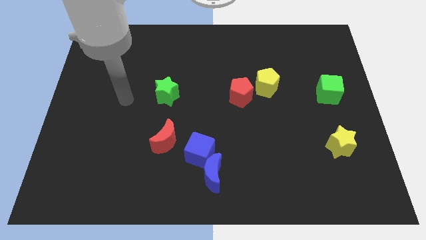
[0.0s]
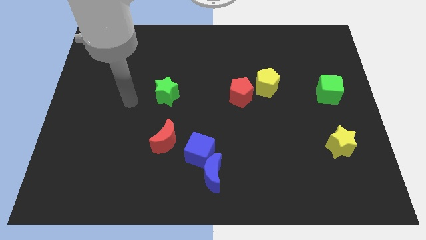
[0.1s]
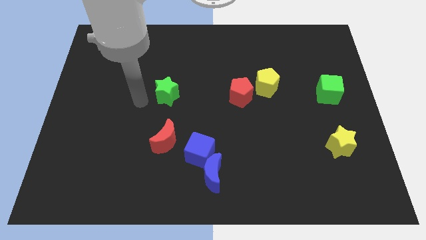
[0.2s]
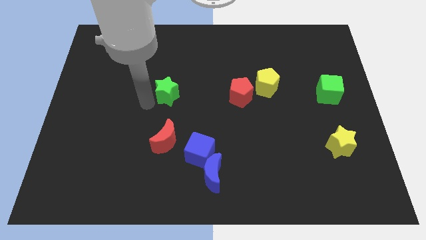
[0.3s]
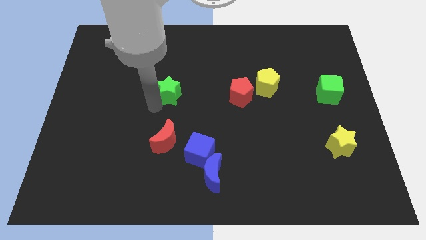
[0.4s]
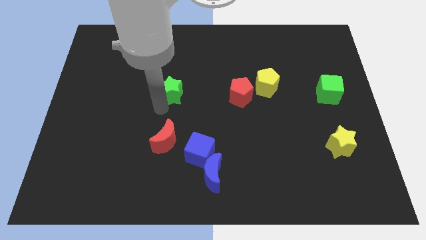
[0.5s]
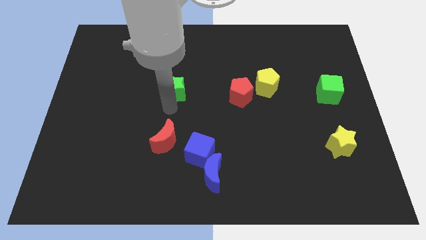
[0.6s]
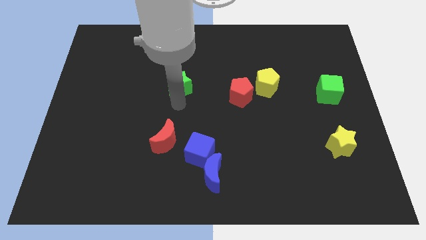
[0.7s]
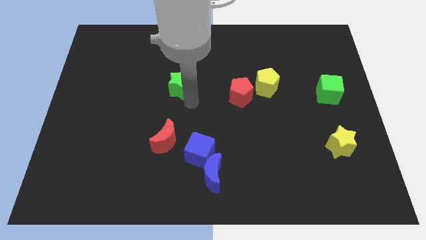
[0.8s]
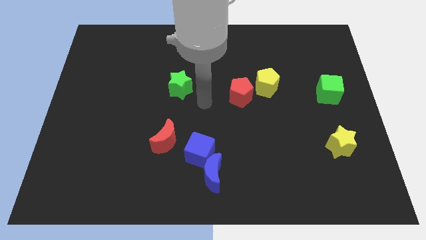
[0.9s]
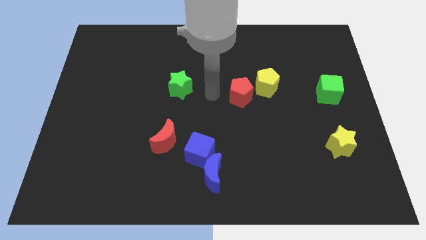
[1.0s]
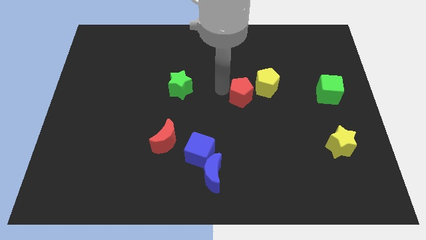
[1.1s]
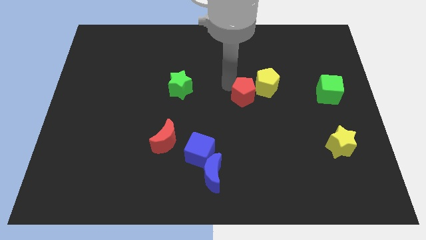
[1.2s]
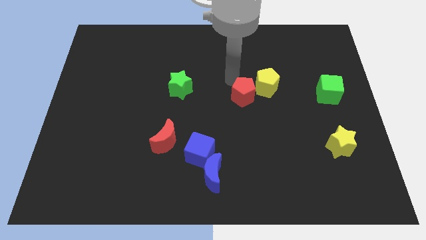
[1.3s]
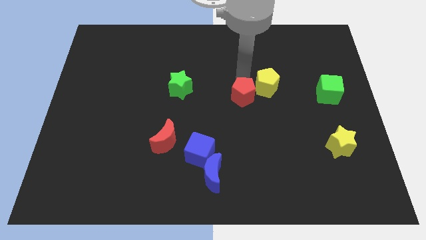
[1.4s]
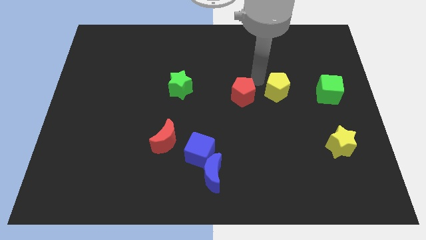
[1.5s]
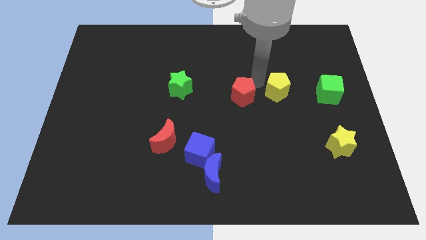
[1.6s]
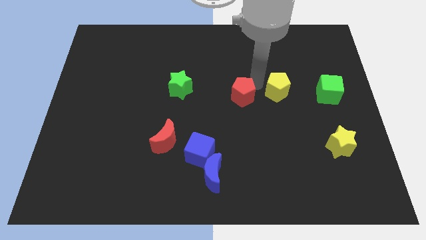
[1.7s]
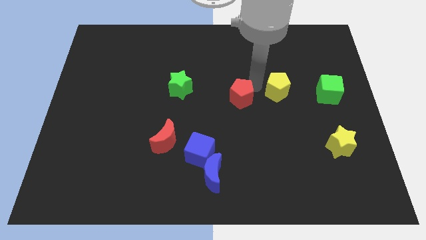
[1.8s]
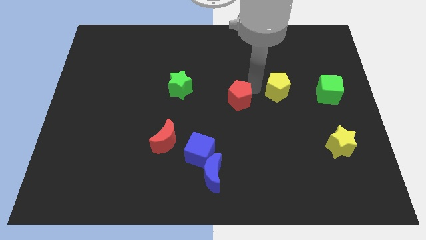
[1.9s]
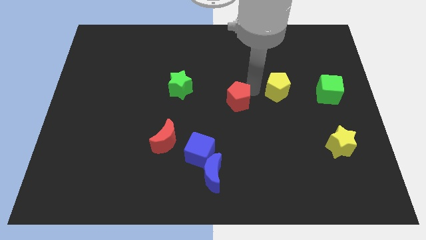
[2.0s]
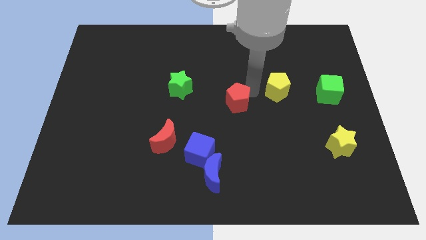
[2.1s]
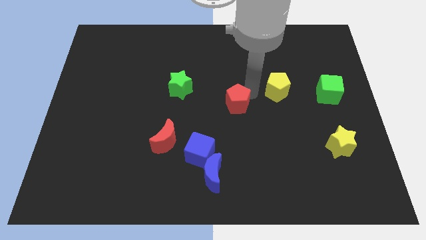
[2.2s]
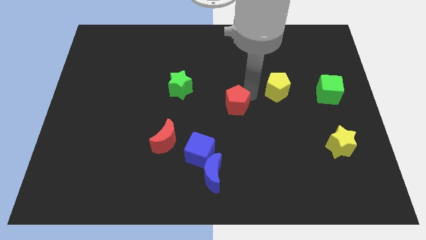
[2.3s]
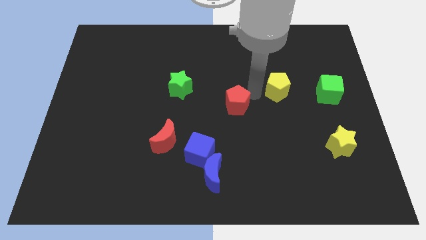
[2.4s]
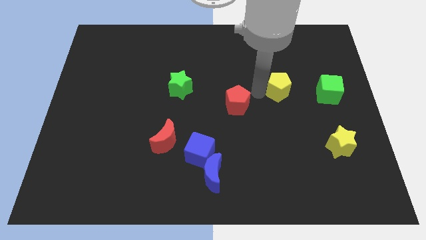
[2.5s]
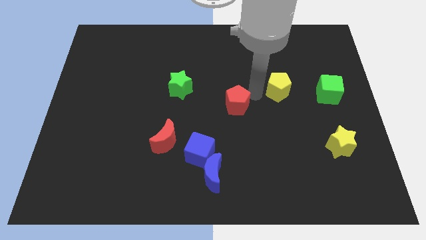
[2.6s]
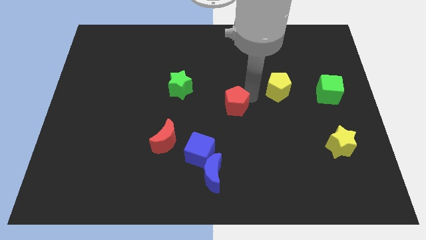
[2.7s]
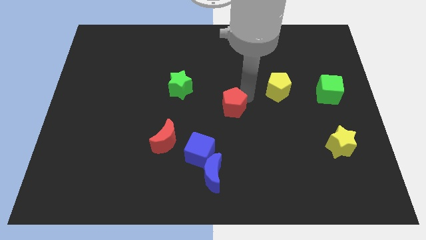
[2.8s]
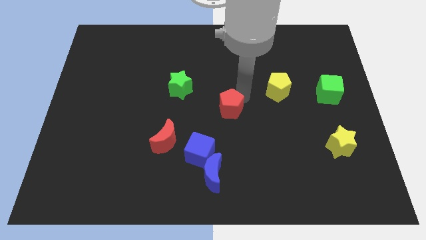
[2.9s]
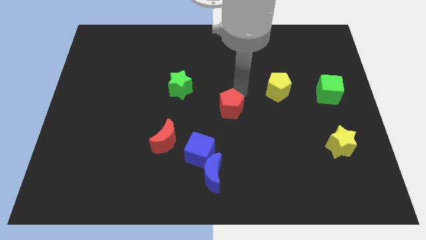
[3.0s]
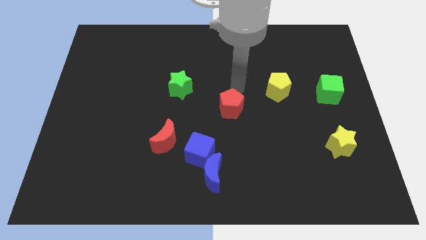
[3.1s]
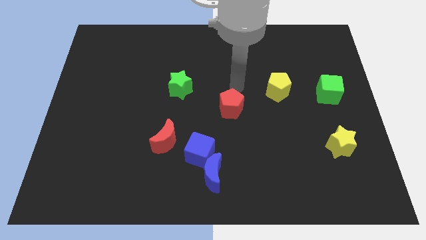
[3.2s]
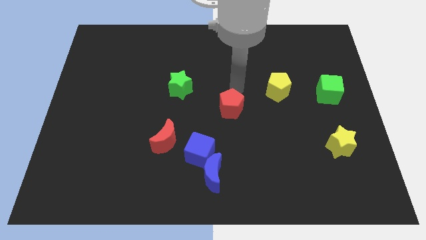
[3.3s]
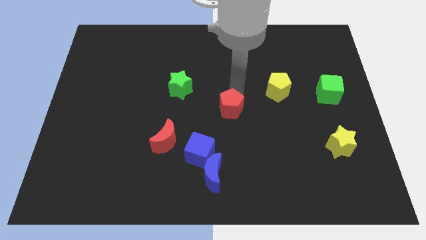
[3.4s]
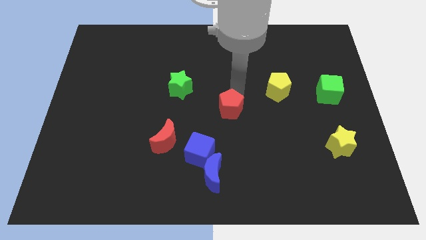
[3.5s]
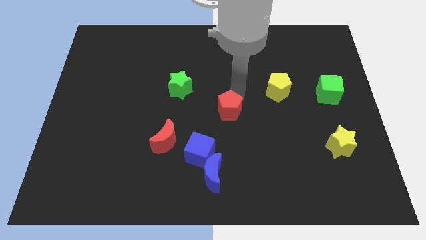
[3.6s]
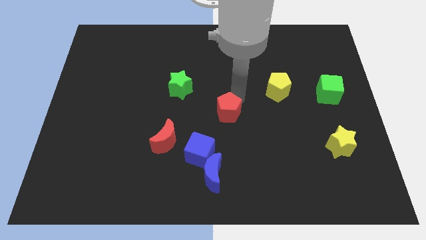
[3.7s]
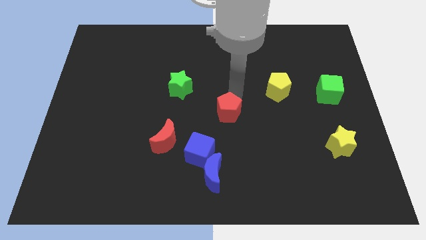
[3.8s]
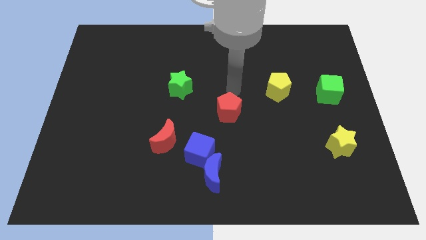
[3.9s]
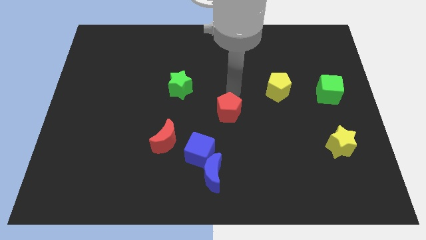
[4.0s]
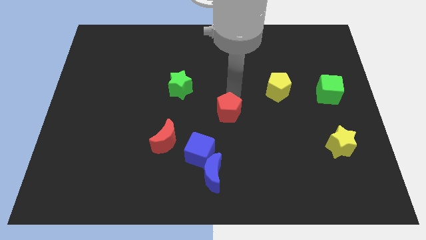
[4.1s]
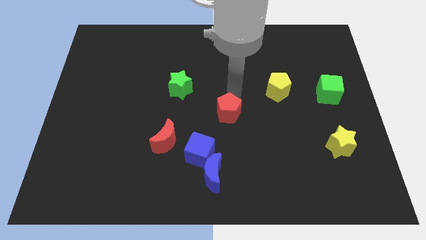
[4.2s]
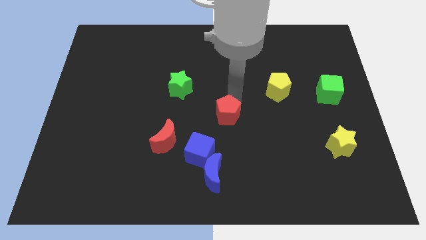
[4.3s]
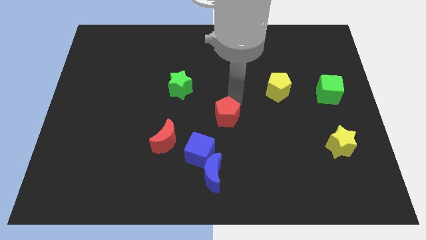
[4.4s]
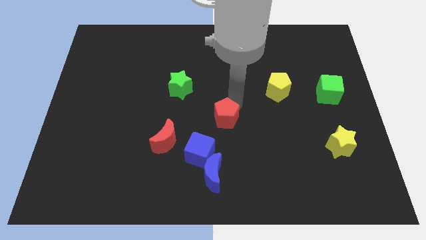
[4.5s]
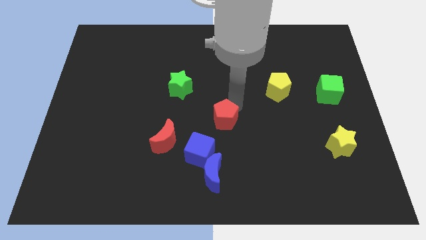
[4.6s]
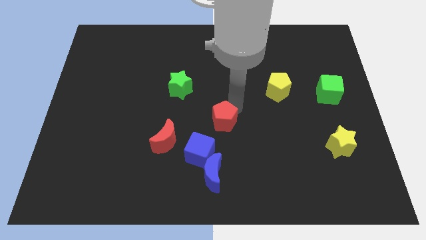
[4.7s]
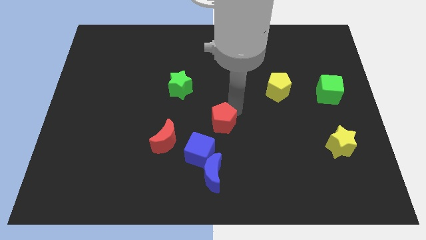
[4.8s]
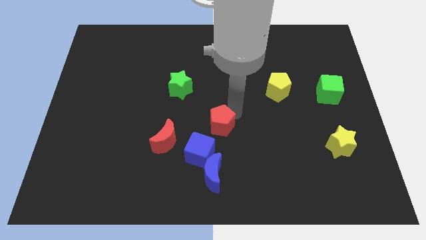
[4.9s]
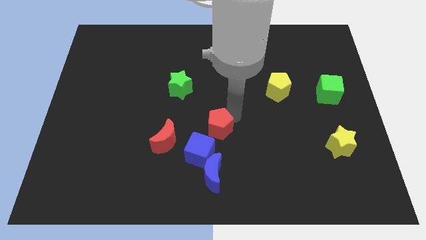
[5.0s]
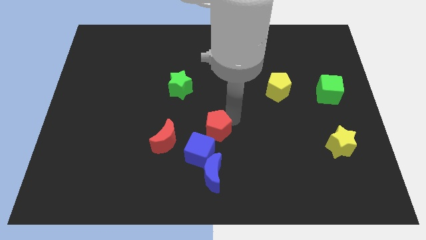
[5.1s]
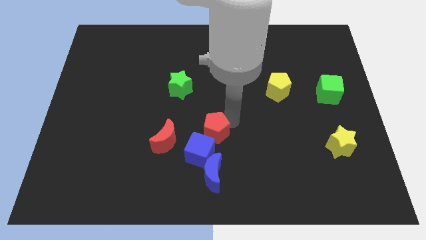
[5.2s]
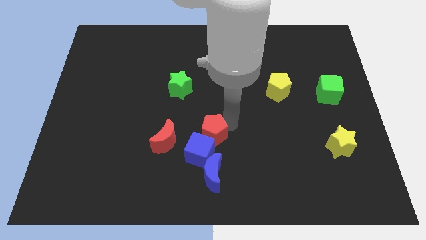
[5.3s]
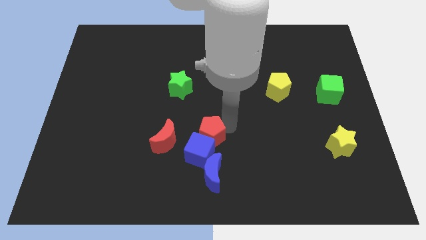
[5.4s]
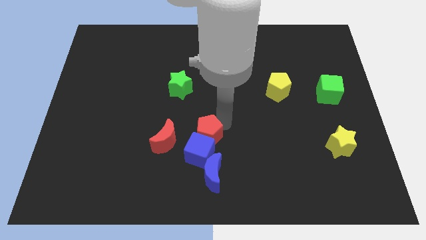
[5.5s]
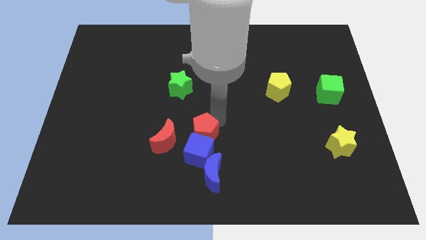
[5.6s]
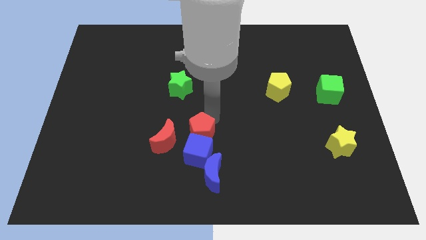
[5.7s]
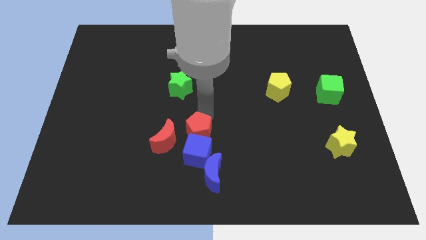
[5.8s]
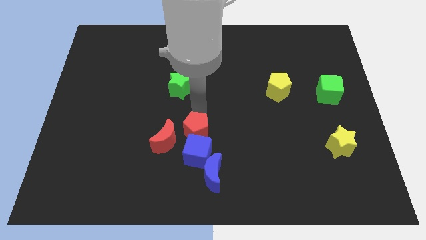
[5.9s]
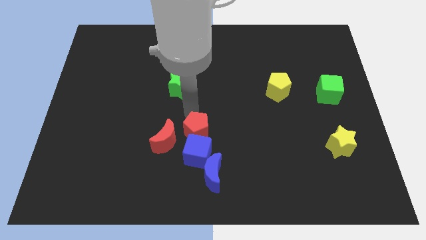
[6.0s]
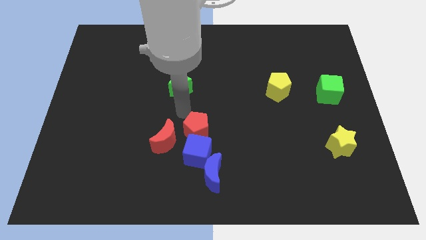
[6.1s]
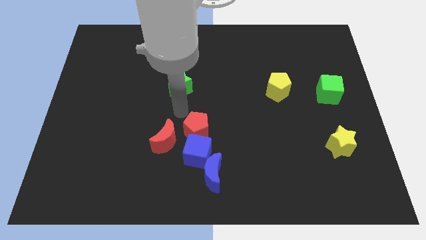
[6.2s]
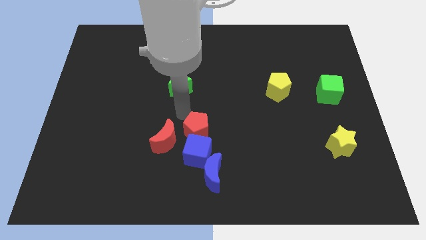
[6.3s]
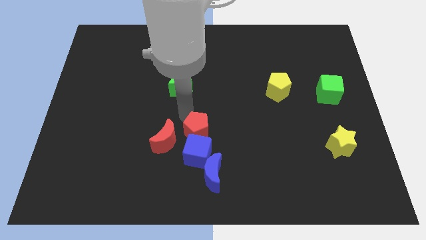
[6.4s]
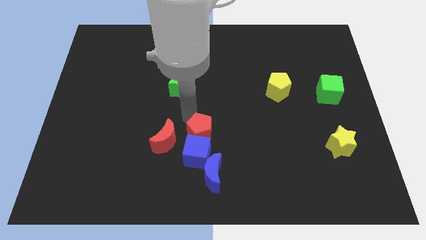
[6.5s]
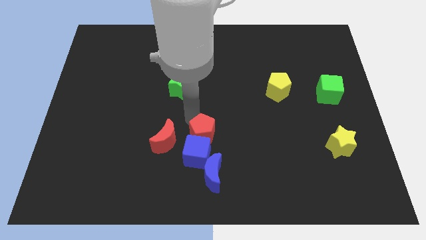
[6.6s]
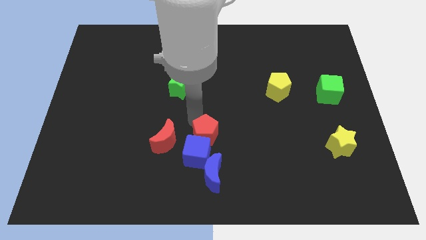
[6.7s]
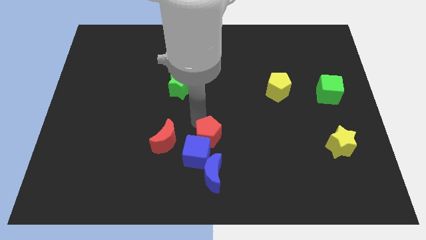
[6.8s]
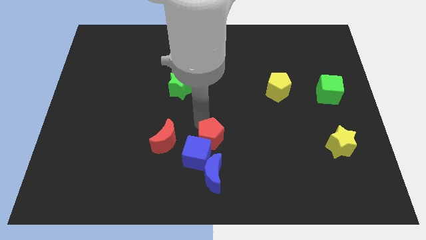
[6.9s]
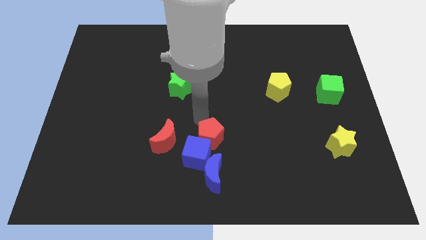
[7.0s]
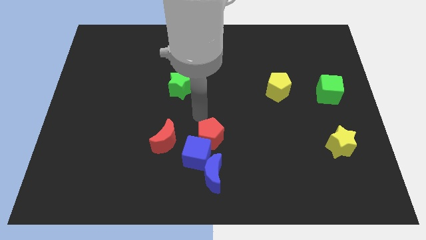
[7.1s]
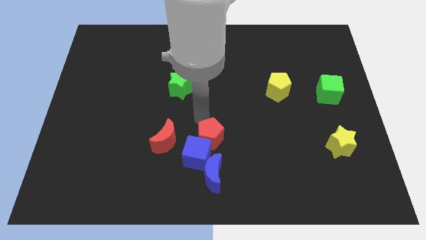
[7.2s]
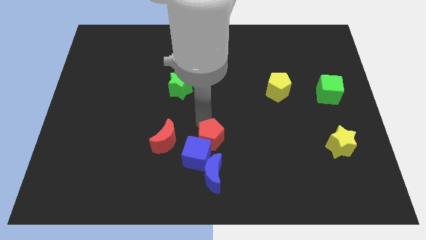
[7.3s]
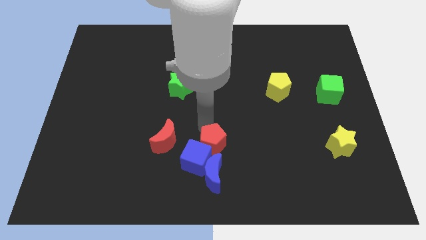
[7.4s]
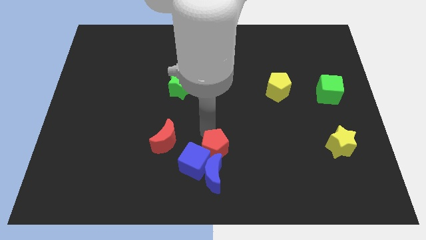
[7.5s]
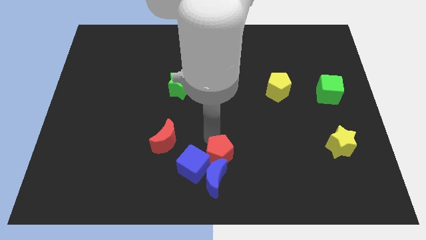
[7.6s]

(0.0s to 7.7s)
push the red pentagon next to the blue moon
